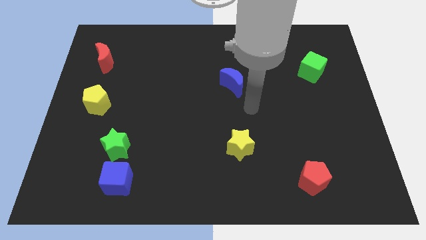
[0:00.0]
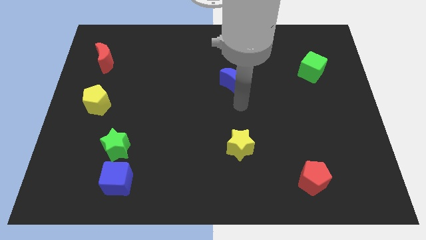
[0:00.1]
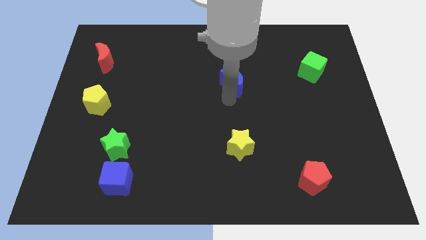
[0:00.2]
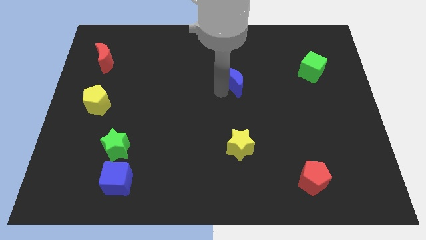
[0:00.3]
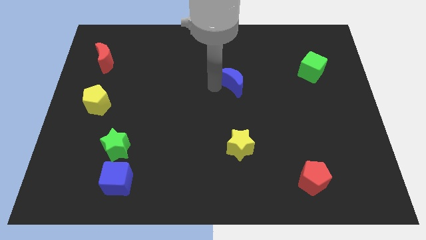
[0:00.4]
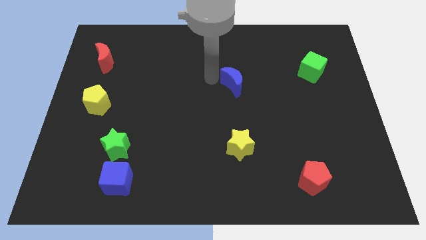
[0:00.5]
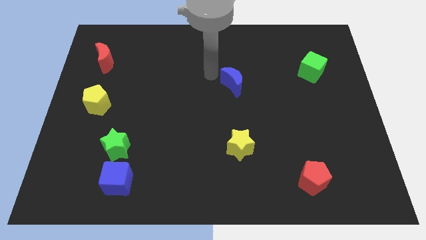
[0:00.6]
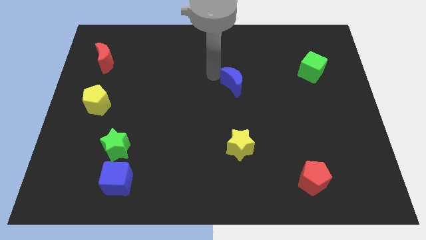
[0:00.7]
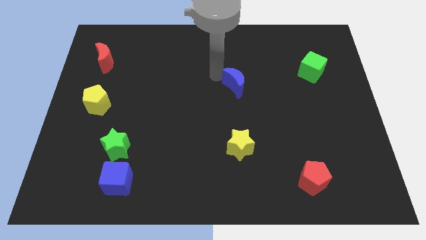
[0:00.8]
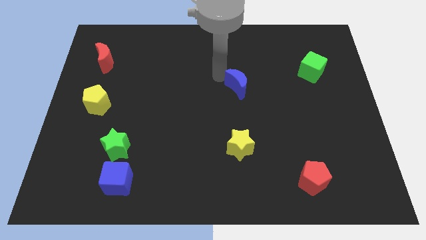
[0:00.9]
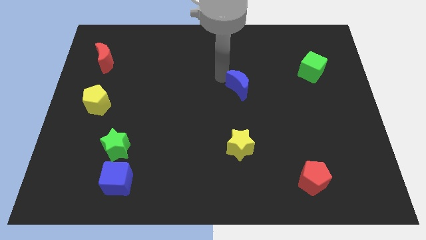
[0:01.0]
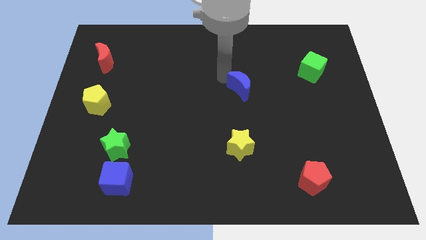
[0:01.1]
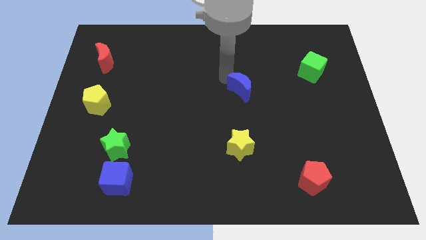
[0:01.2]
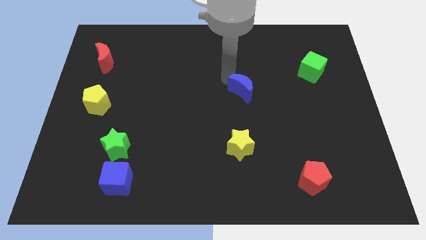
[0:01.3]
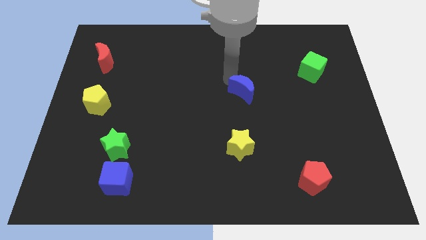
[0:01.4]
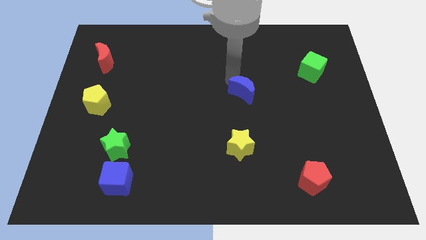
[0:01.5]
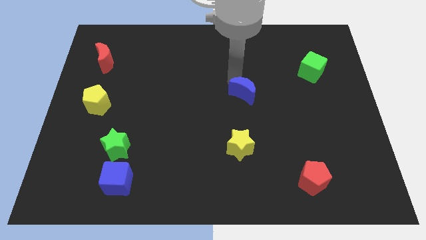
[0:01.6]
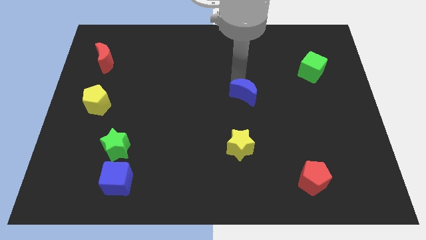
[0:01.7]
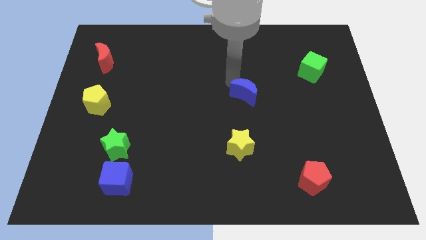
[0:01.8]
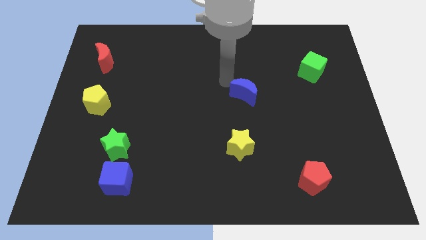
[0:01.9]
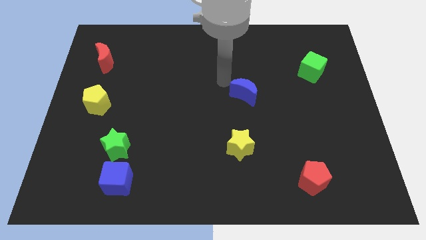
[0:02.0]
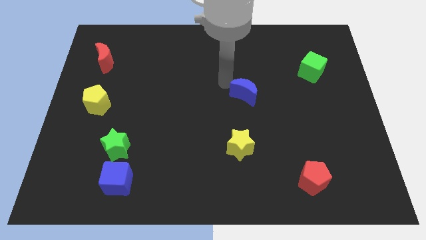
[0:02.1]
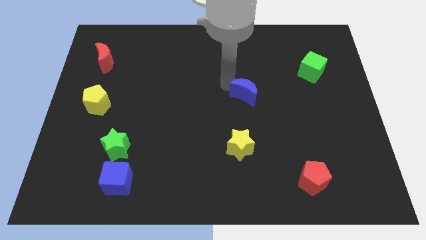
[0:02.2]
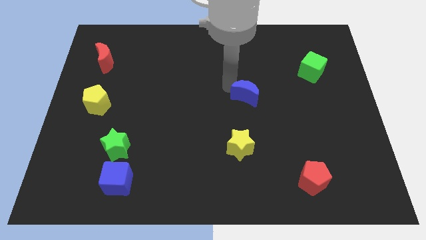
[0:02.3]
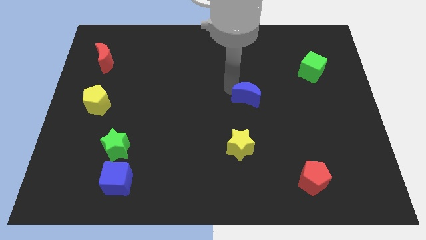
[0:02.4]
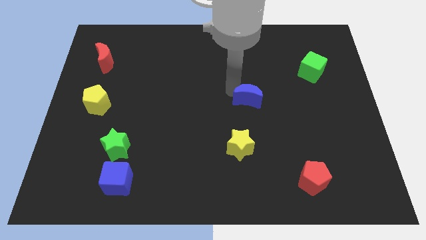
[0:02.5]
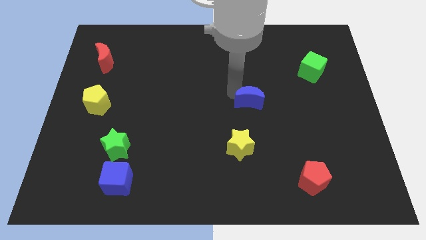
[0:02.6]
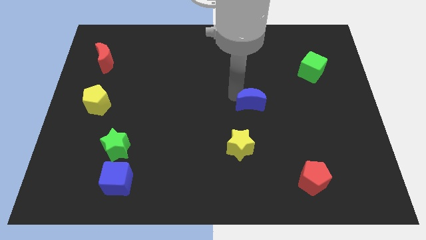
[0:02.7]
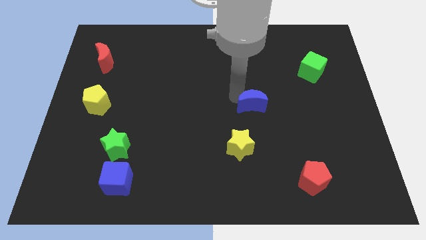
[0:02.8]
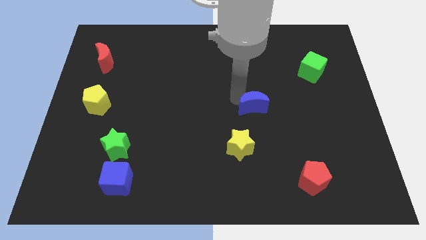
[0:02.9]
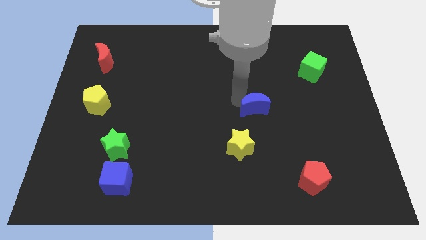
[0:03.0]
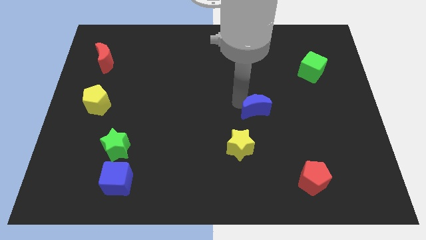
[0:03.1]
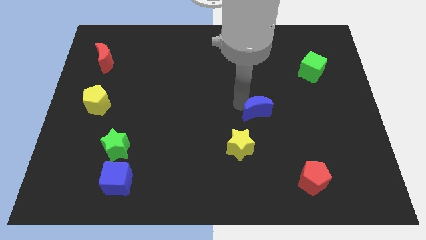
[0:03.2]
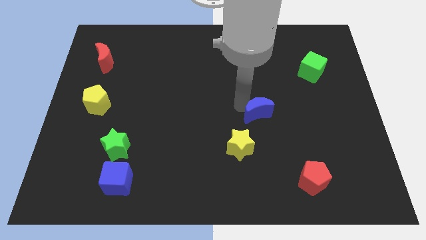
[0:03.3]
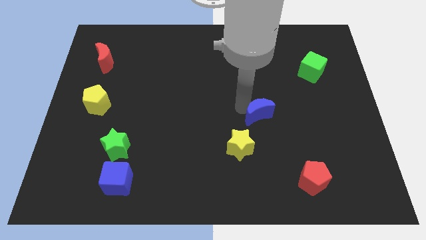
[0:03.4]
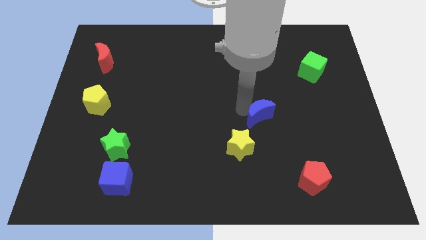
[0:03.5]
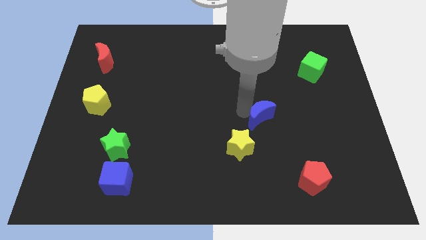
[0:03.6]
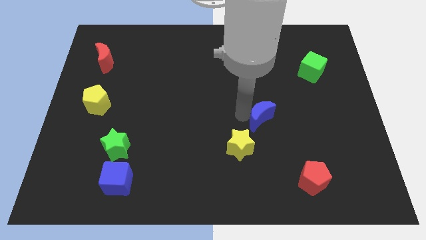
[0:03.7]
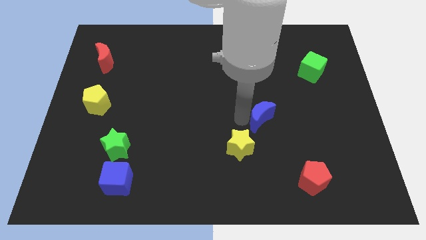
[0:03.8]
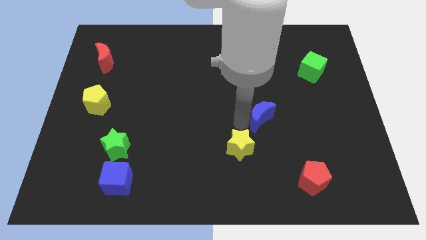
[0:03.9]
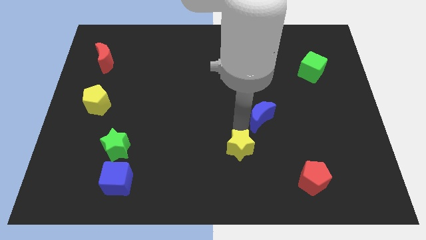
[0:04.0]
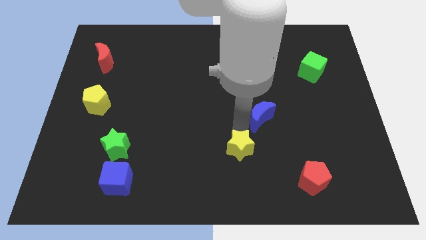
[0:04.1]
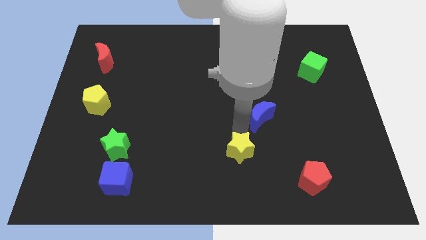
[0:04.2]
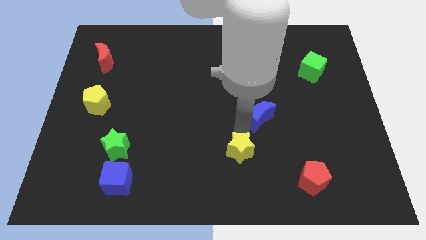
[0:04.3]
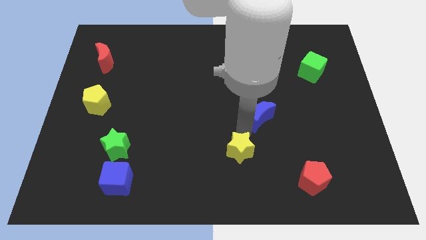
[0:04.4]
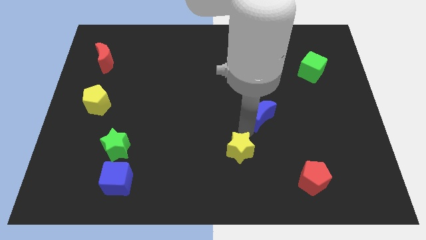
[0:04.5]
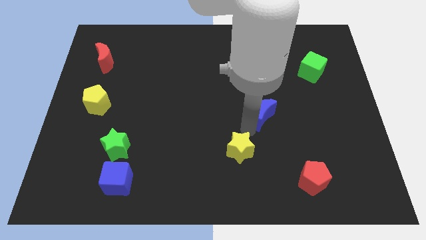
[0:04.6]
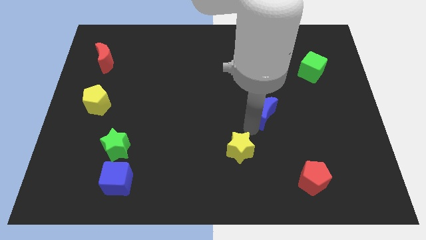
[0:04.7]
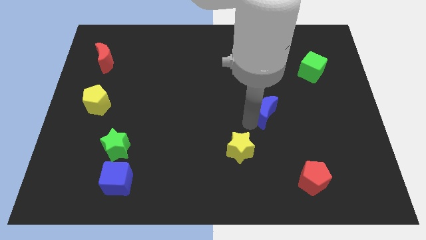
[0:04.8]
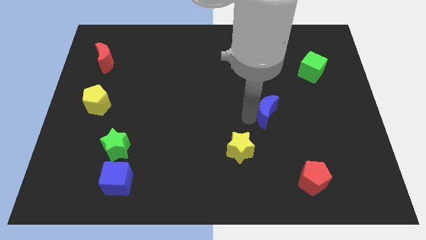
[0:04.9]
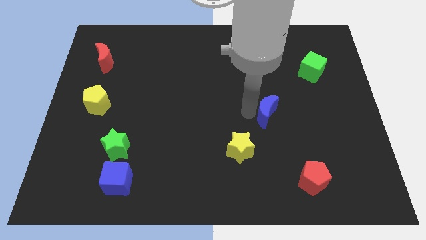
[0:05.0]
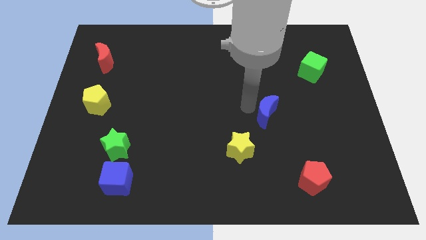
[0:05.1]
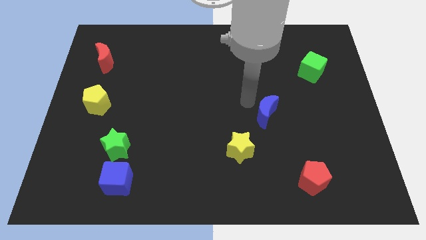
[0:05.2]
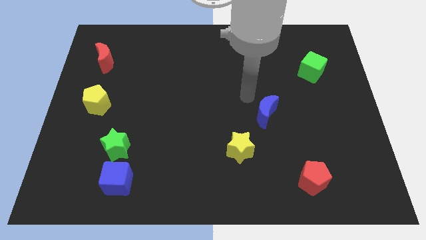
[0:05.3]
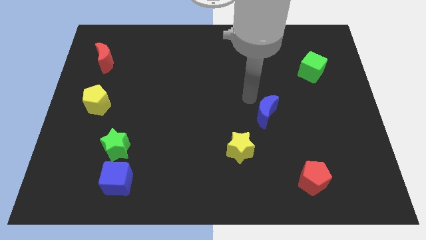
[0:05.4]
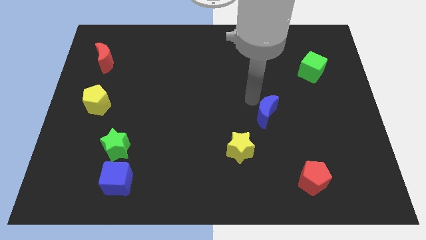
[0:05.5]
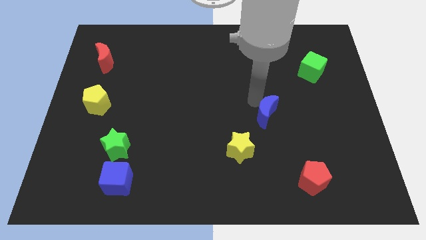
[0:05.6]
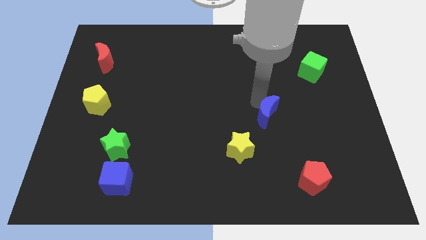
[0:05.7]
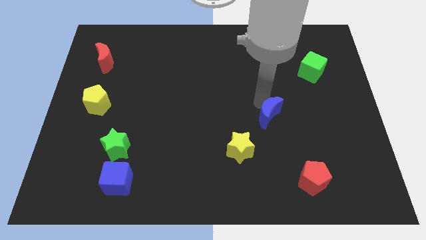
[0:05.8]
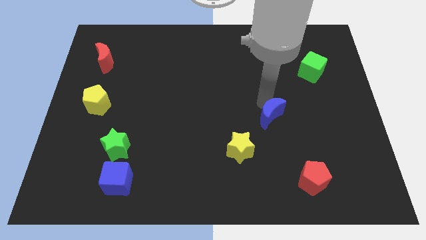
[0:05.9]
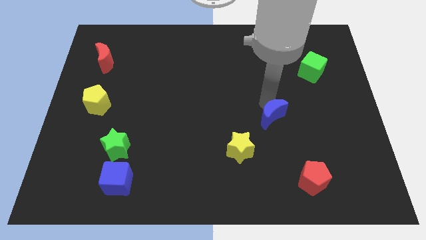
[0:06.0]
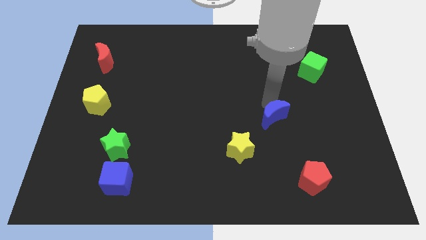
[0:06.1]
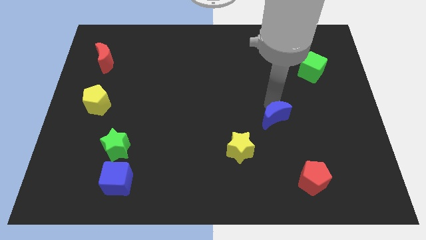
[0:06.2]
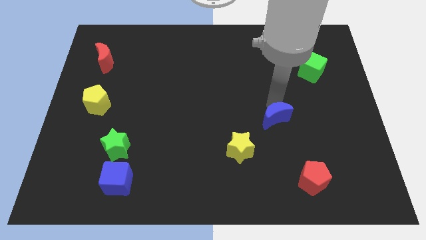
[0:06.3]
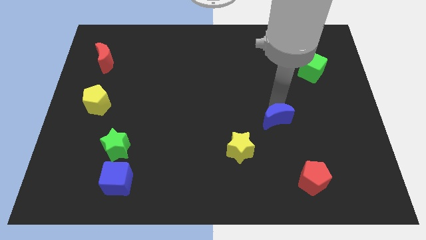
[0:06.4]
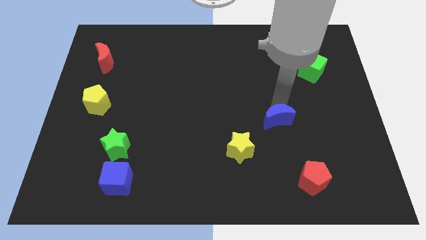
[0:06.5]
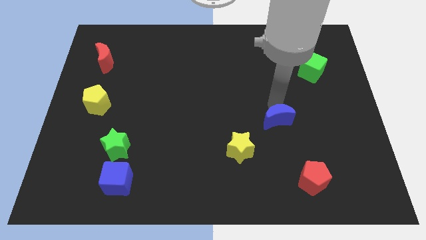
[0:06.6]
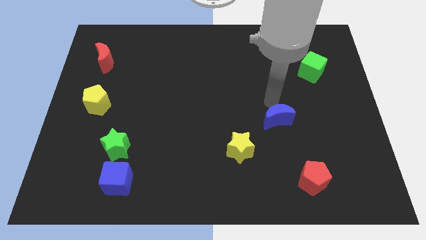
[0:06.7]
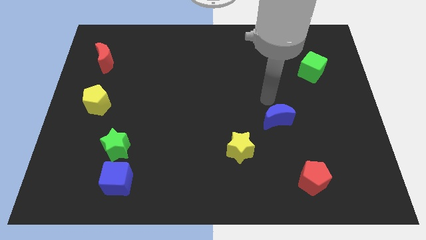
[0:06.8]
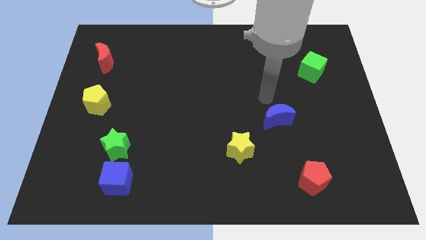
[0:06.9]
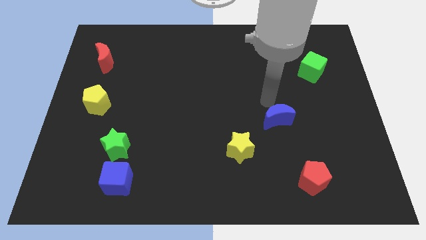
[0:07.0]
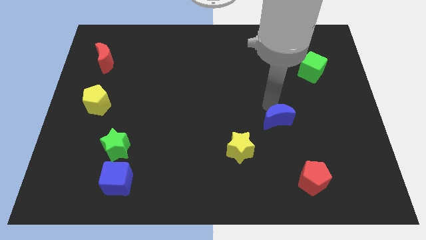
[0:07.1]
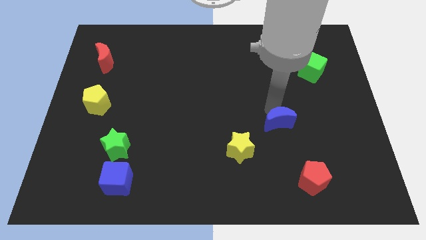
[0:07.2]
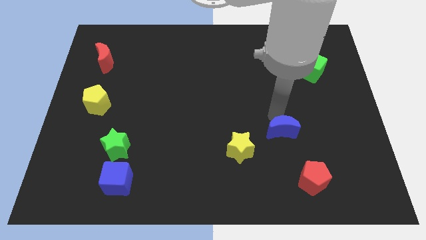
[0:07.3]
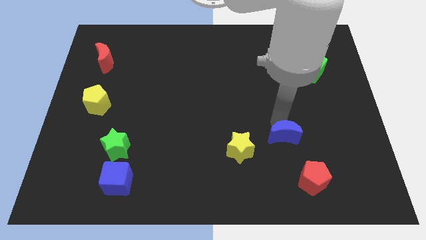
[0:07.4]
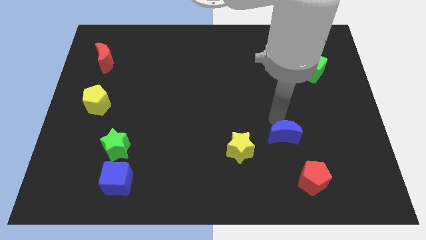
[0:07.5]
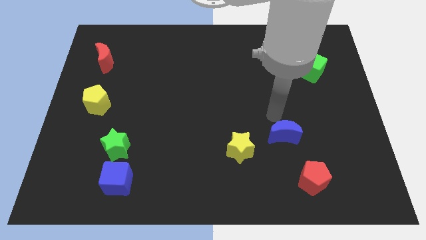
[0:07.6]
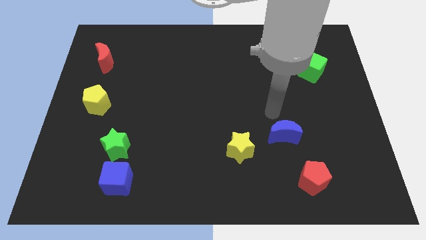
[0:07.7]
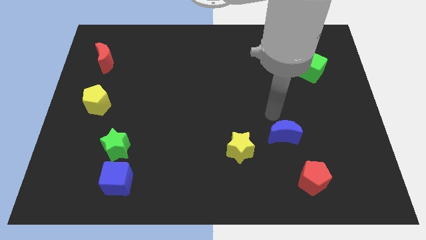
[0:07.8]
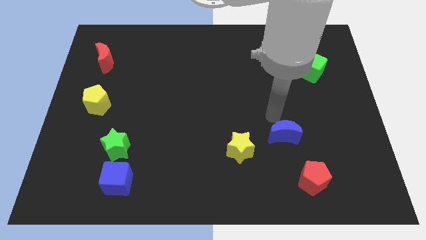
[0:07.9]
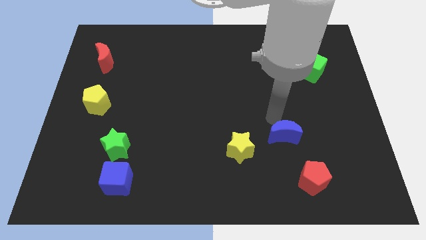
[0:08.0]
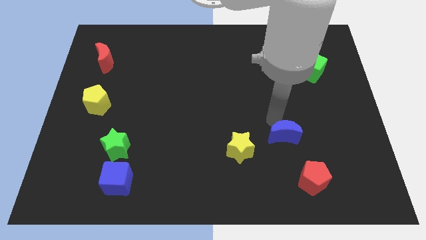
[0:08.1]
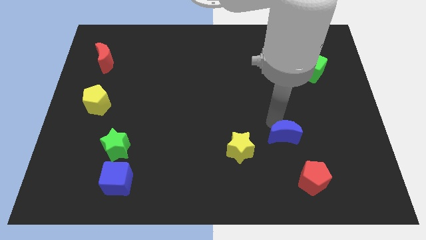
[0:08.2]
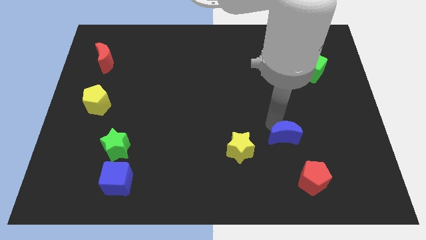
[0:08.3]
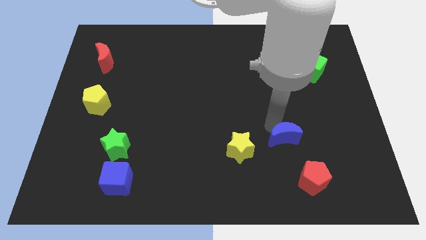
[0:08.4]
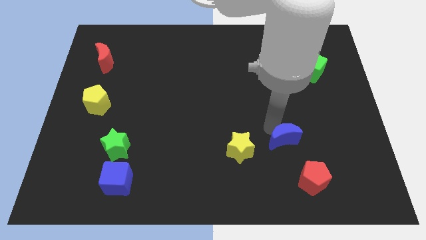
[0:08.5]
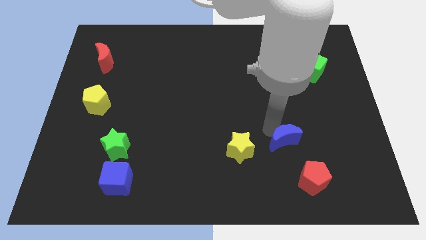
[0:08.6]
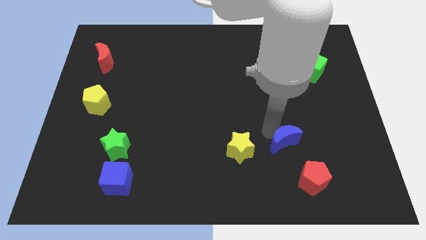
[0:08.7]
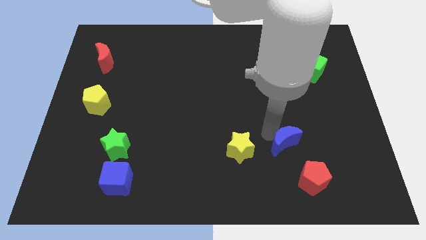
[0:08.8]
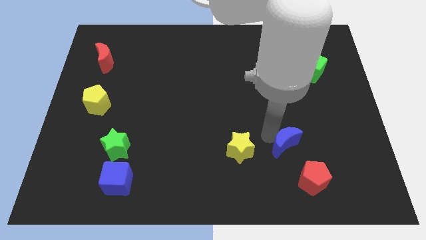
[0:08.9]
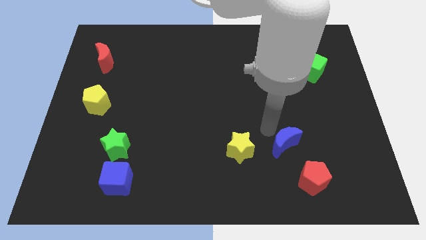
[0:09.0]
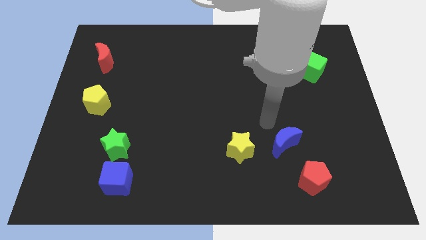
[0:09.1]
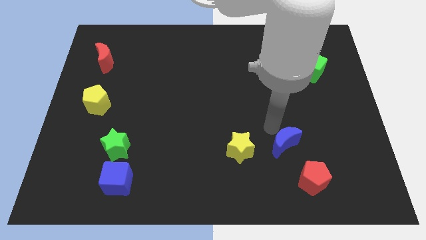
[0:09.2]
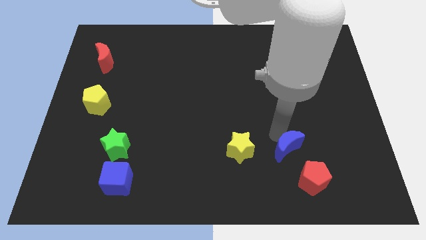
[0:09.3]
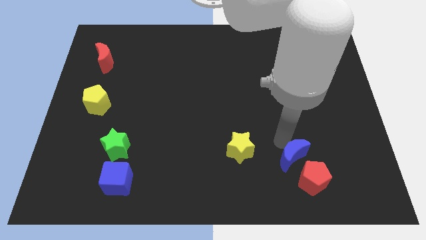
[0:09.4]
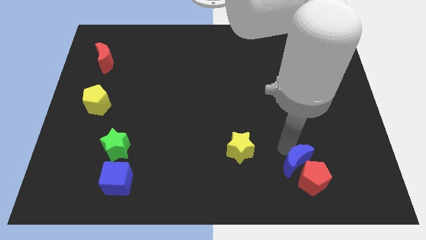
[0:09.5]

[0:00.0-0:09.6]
move the blue moon close to the red pentagon
